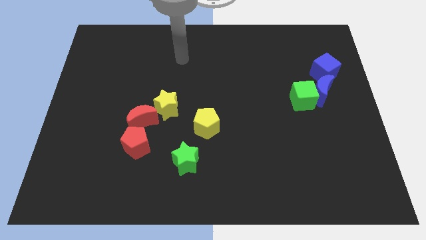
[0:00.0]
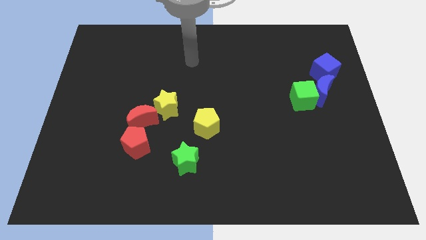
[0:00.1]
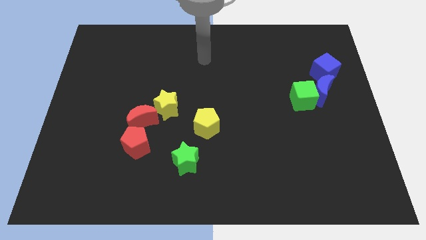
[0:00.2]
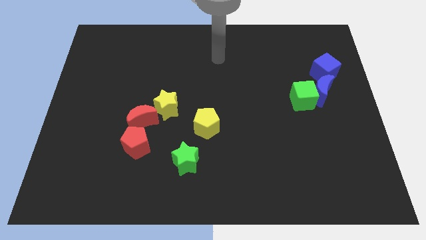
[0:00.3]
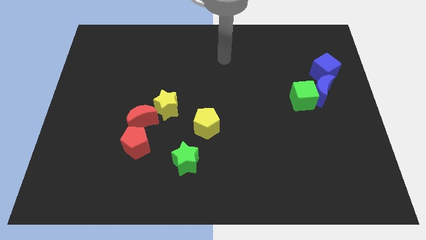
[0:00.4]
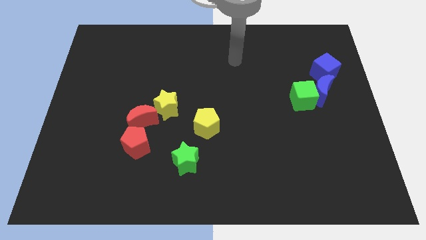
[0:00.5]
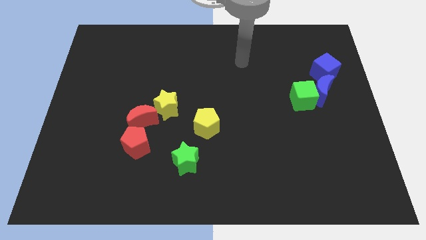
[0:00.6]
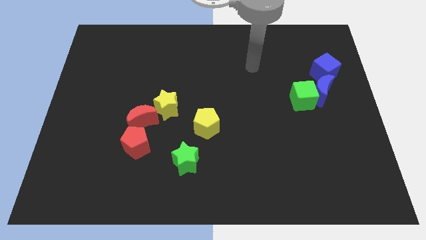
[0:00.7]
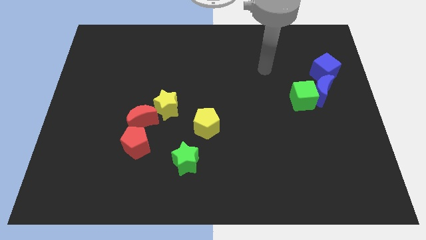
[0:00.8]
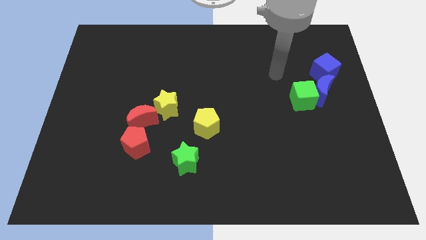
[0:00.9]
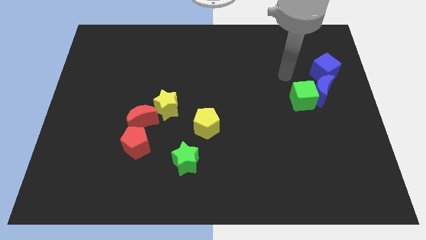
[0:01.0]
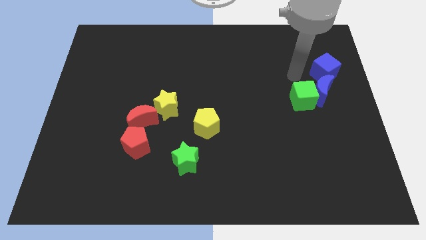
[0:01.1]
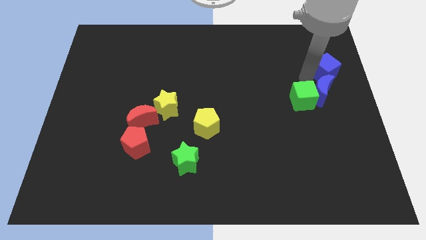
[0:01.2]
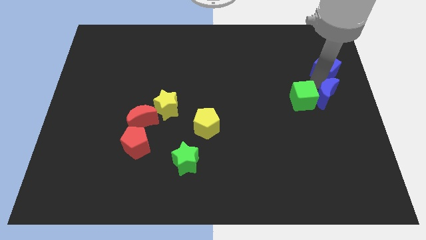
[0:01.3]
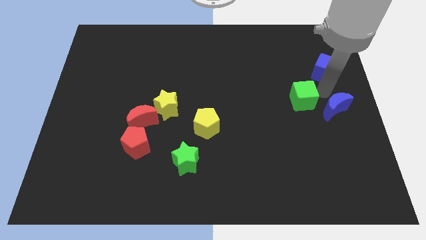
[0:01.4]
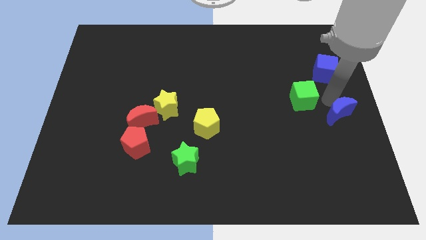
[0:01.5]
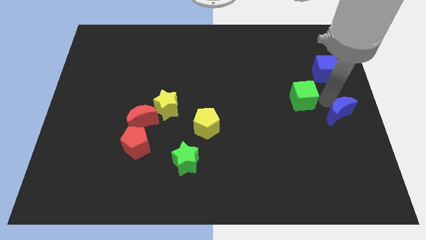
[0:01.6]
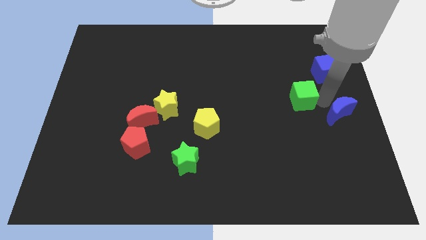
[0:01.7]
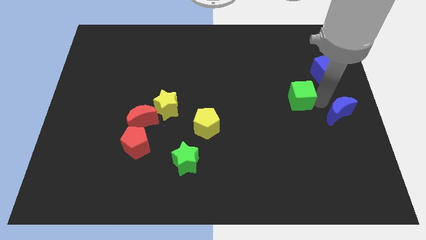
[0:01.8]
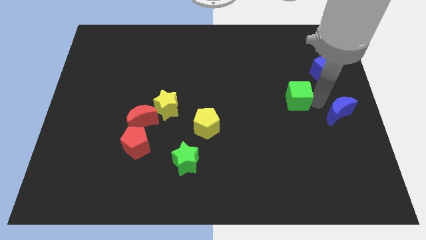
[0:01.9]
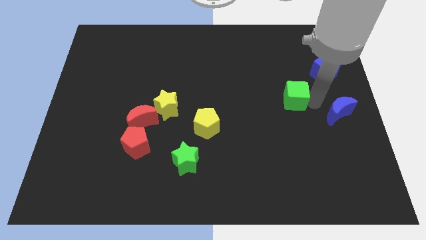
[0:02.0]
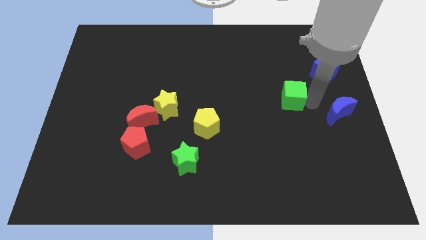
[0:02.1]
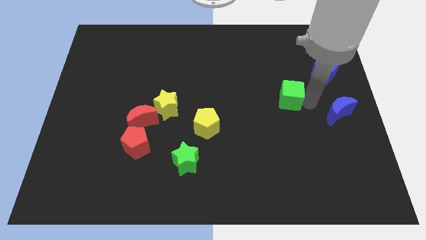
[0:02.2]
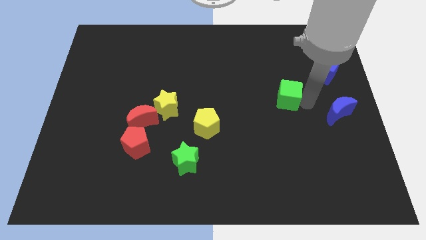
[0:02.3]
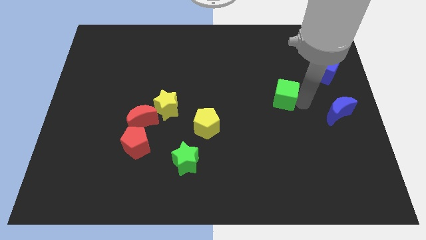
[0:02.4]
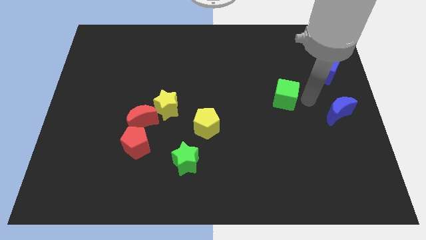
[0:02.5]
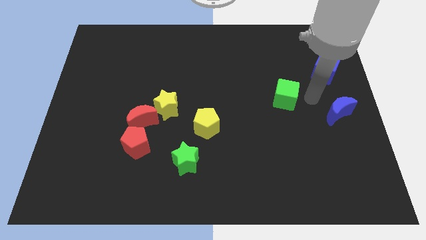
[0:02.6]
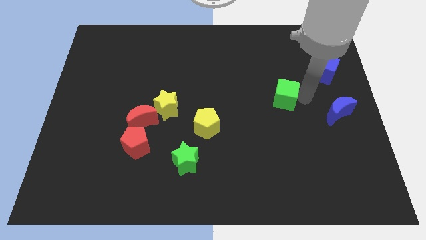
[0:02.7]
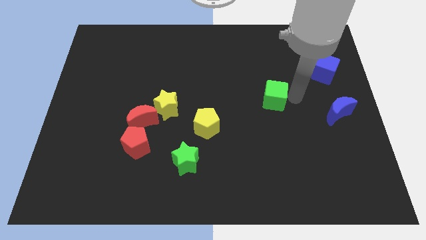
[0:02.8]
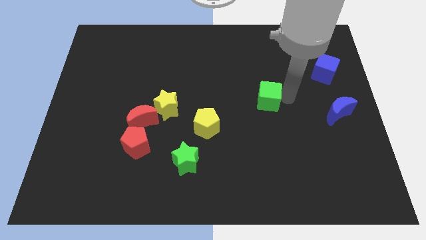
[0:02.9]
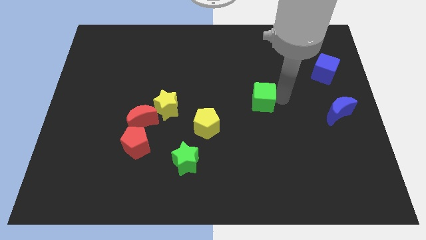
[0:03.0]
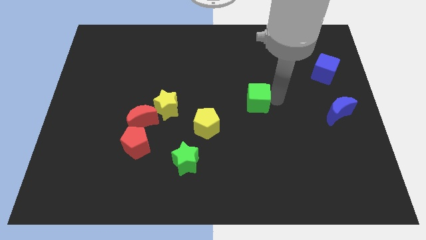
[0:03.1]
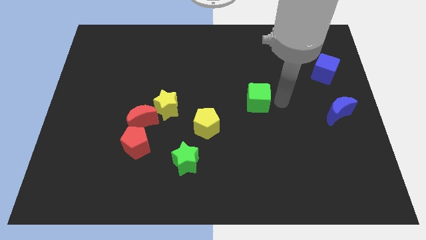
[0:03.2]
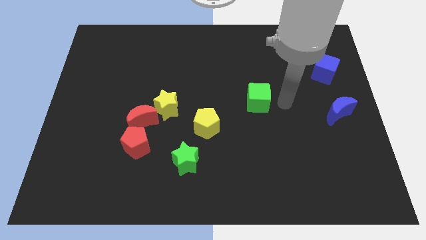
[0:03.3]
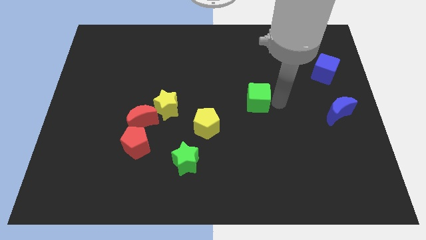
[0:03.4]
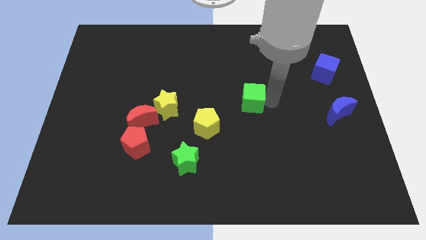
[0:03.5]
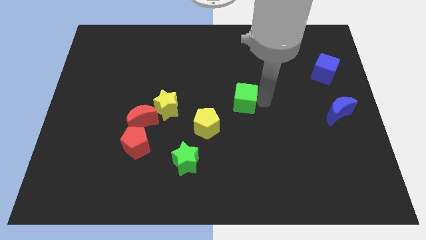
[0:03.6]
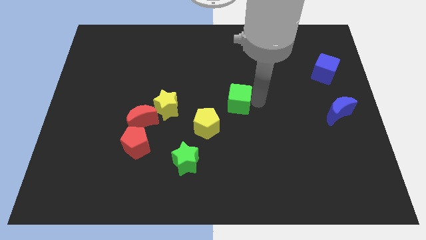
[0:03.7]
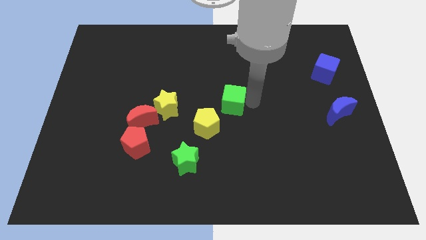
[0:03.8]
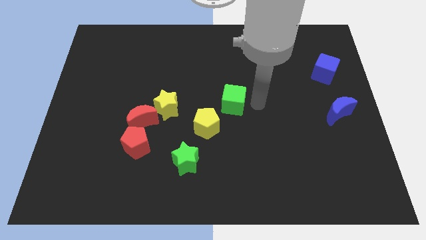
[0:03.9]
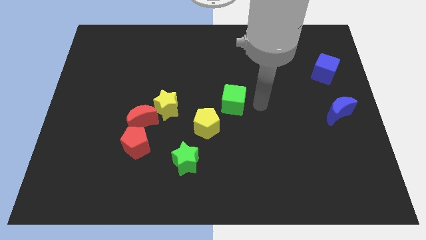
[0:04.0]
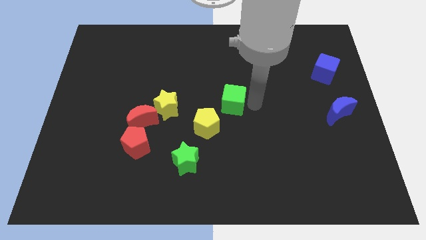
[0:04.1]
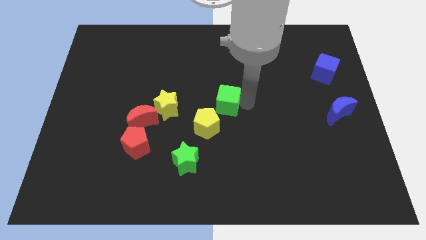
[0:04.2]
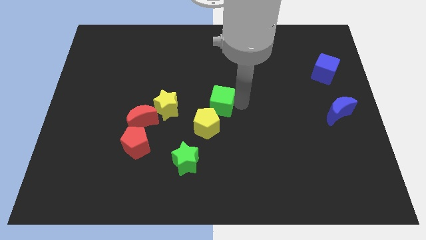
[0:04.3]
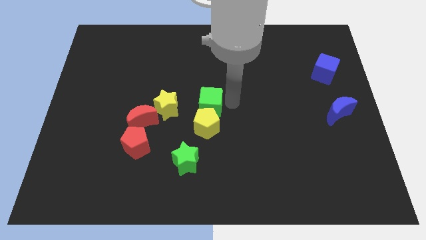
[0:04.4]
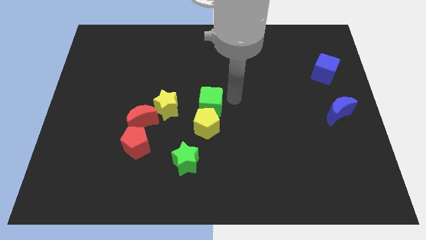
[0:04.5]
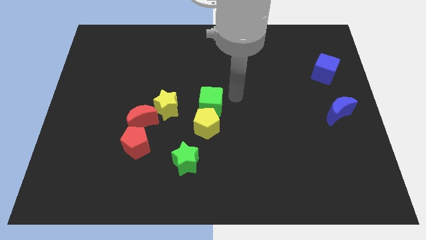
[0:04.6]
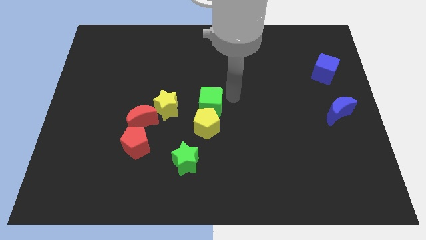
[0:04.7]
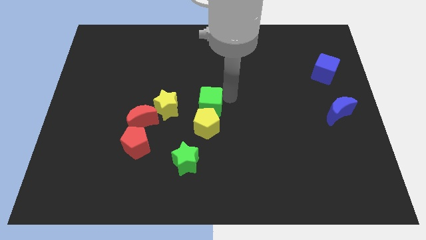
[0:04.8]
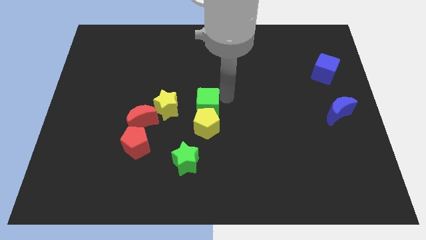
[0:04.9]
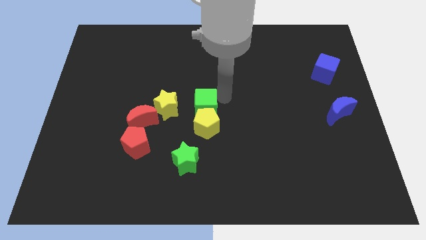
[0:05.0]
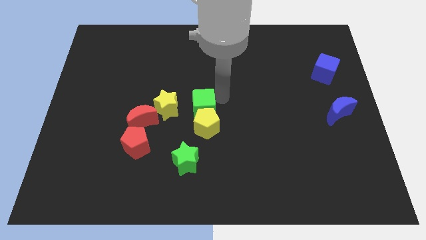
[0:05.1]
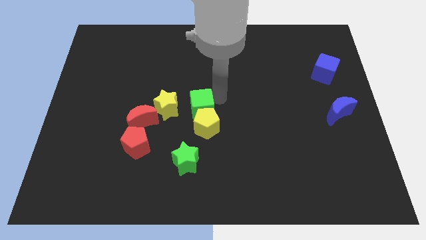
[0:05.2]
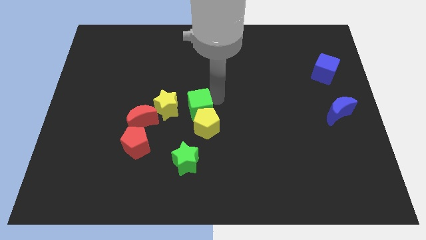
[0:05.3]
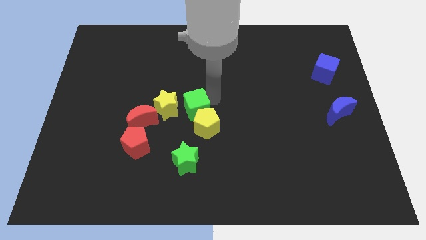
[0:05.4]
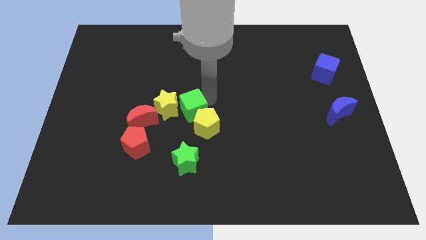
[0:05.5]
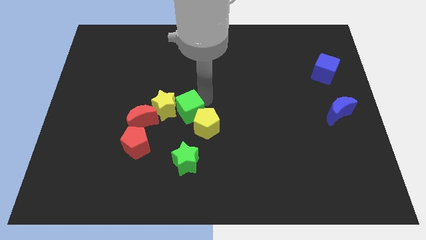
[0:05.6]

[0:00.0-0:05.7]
push the green cube left of the yellow pentagon

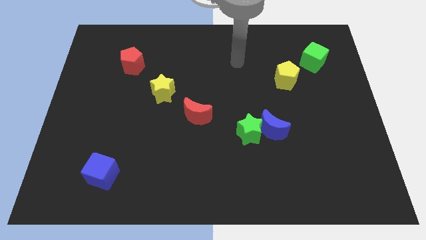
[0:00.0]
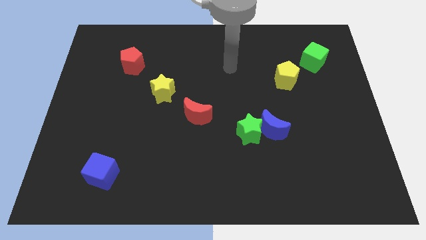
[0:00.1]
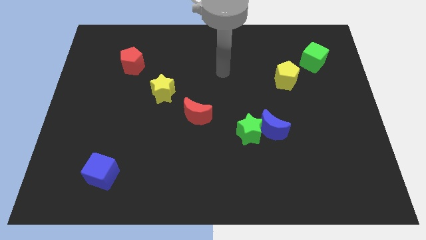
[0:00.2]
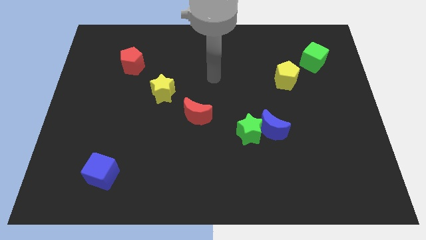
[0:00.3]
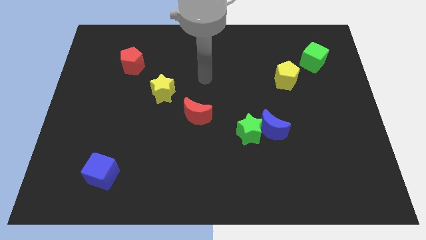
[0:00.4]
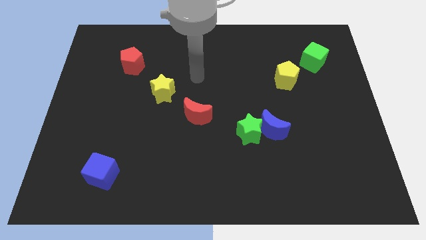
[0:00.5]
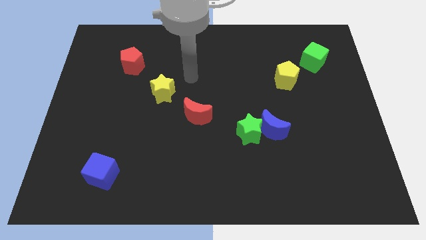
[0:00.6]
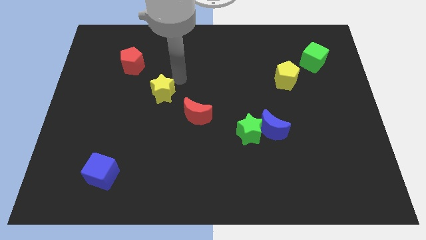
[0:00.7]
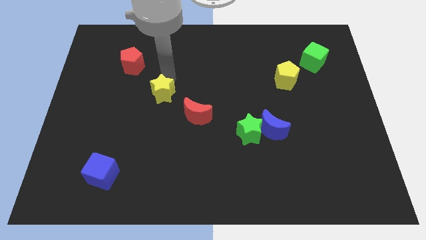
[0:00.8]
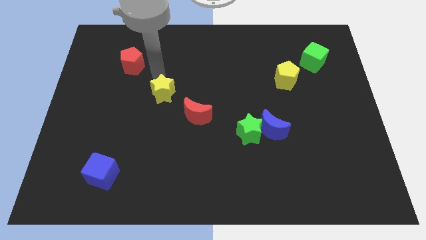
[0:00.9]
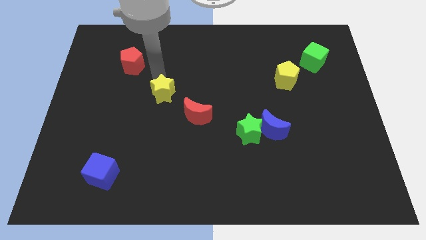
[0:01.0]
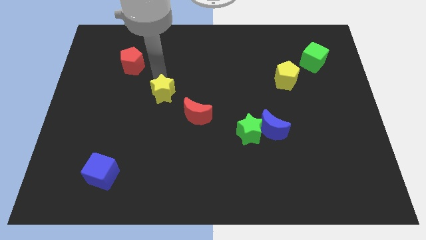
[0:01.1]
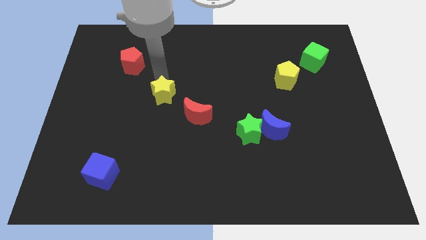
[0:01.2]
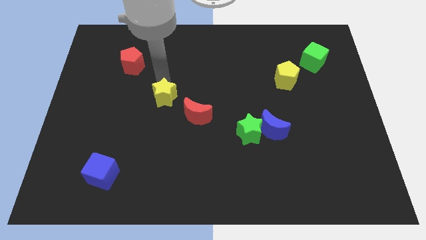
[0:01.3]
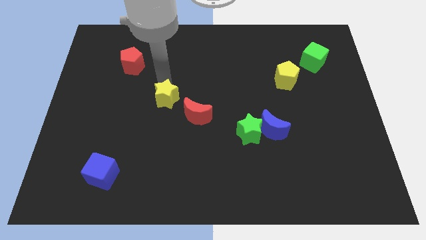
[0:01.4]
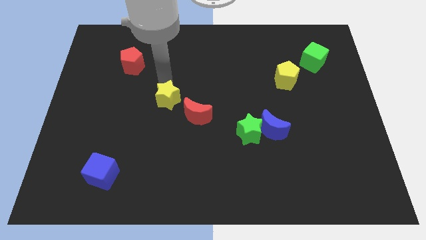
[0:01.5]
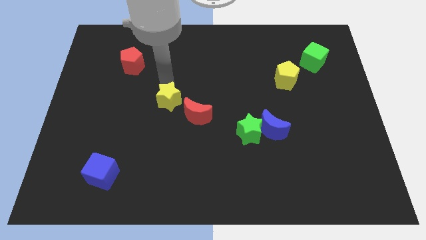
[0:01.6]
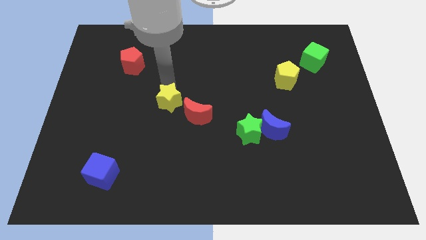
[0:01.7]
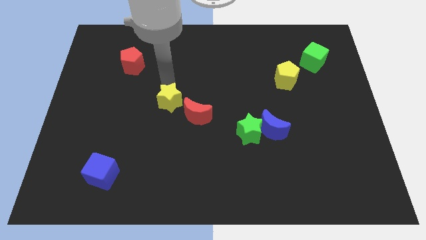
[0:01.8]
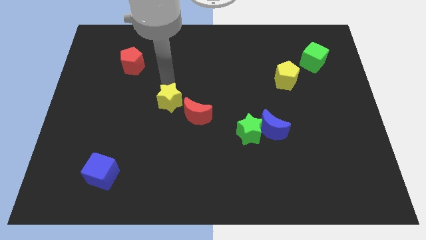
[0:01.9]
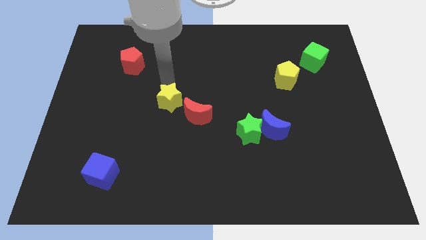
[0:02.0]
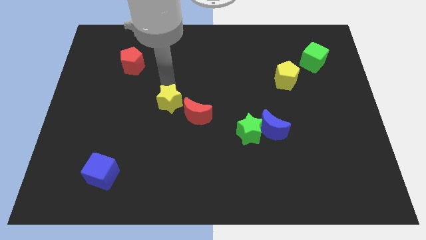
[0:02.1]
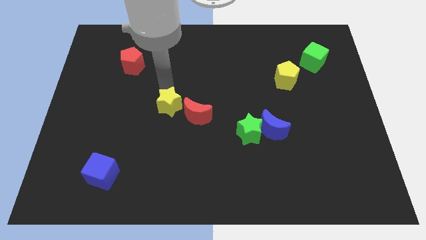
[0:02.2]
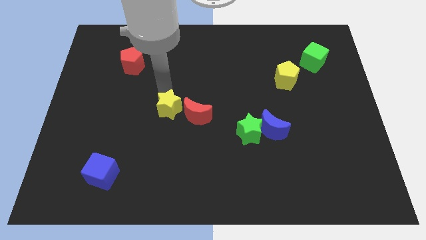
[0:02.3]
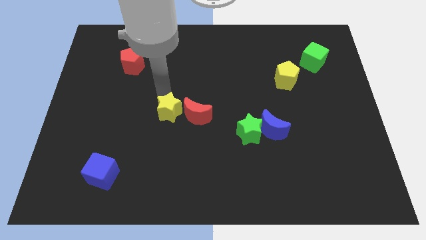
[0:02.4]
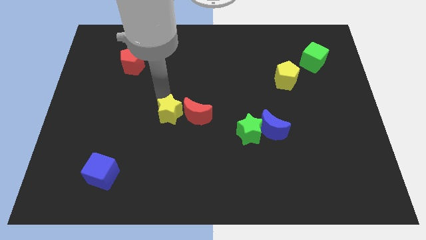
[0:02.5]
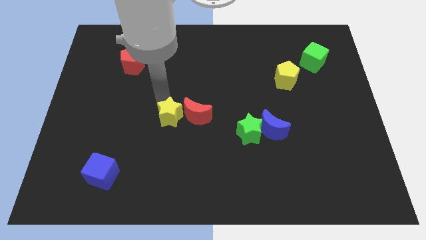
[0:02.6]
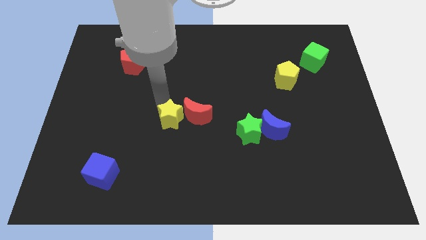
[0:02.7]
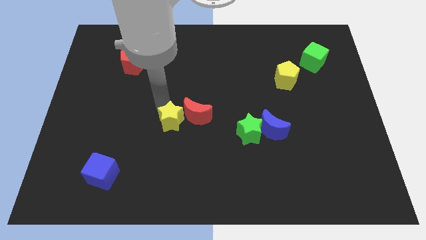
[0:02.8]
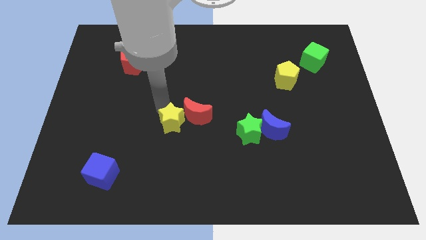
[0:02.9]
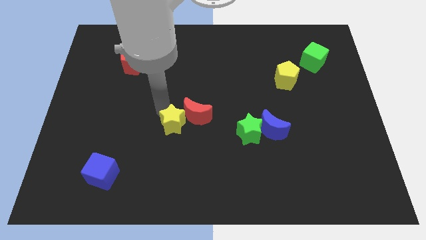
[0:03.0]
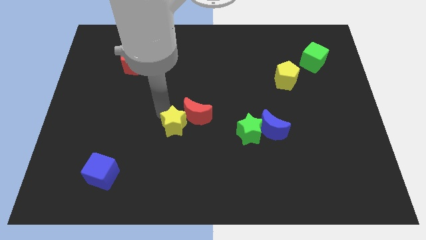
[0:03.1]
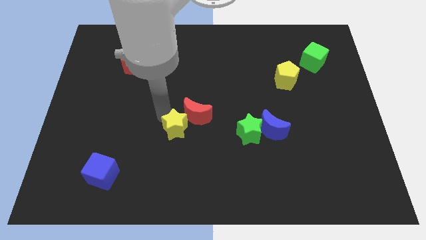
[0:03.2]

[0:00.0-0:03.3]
put the yellow star below the red moon
